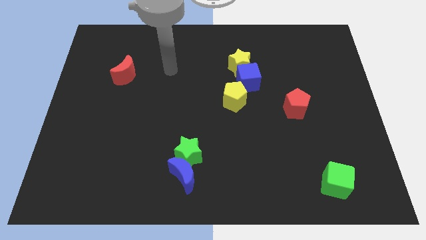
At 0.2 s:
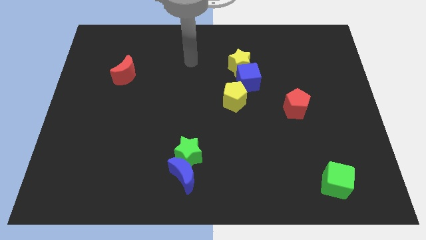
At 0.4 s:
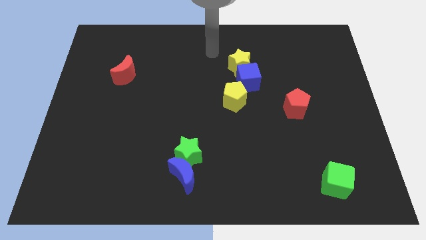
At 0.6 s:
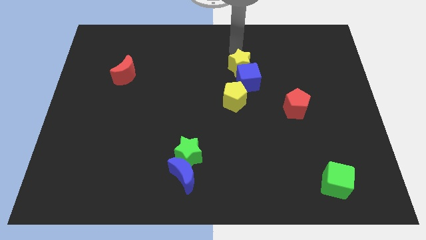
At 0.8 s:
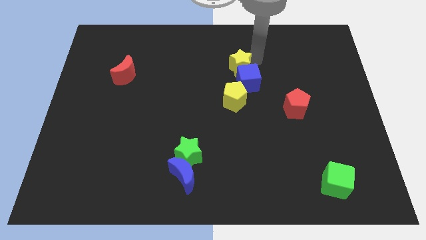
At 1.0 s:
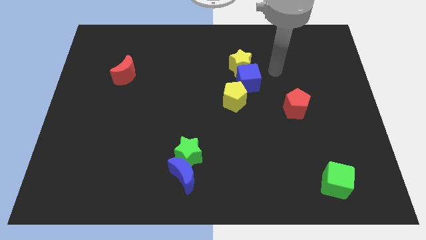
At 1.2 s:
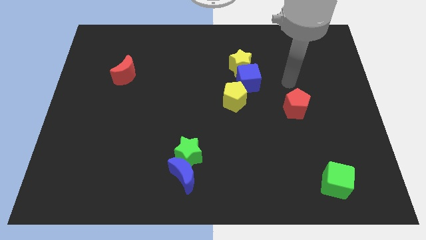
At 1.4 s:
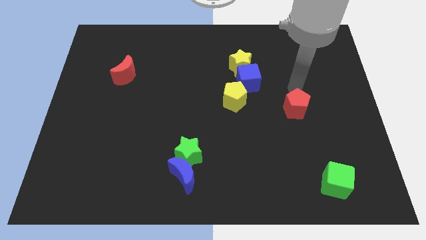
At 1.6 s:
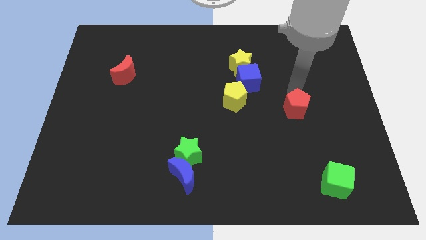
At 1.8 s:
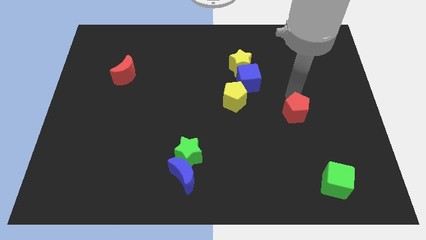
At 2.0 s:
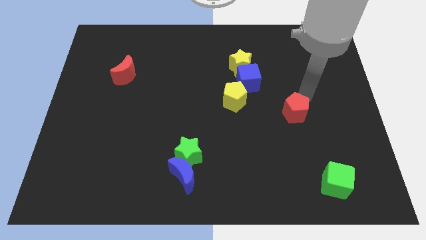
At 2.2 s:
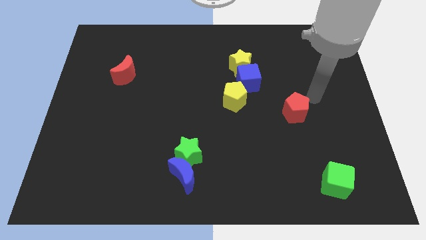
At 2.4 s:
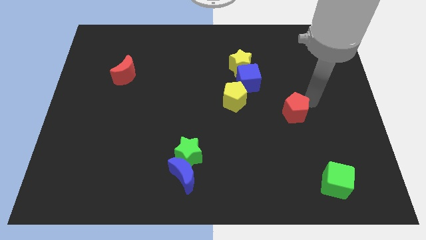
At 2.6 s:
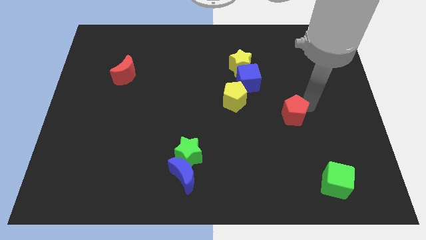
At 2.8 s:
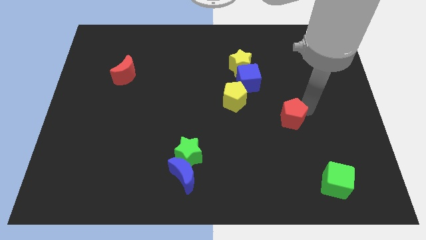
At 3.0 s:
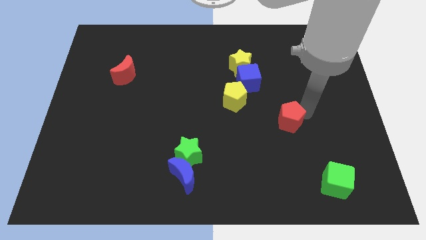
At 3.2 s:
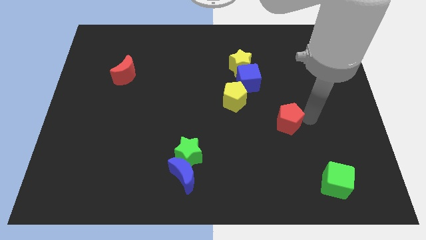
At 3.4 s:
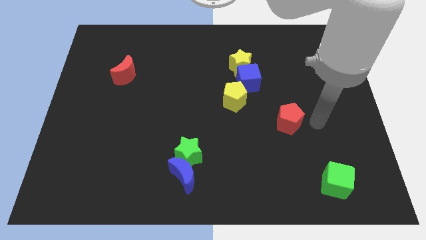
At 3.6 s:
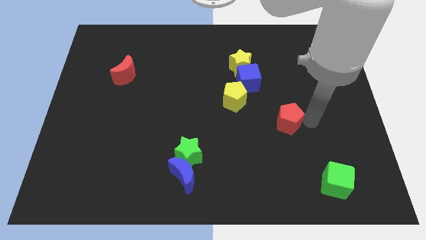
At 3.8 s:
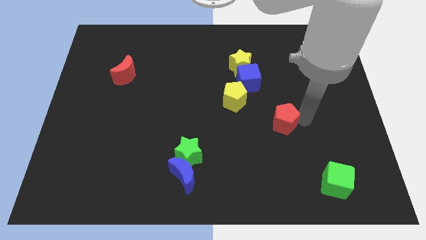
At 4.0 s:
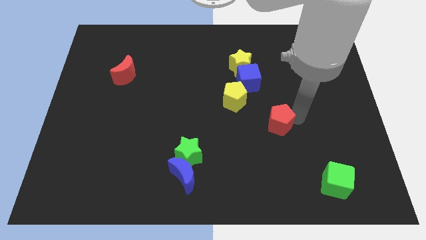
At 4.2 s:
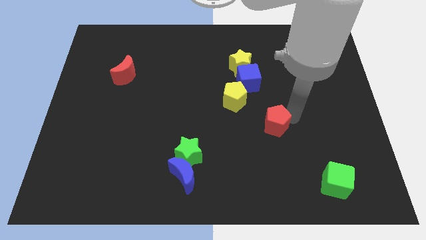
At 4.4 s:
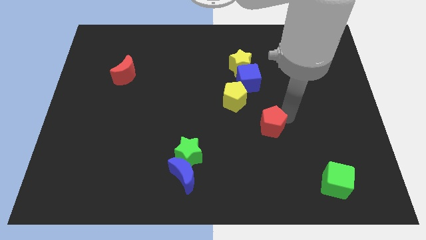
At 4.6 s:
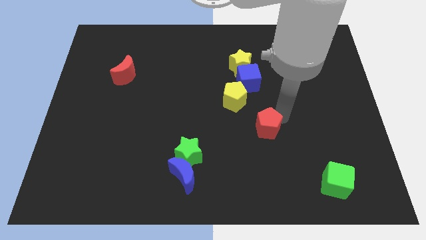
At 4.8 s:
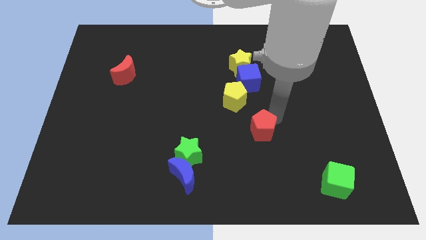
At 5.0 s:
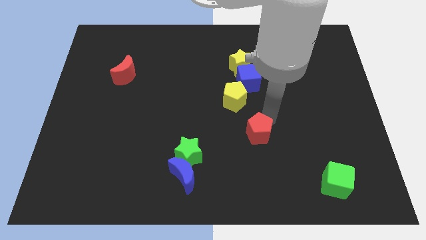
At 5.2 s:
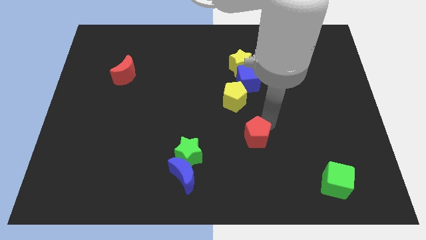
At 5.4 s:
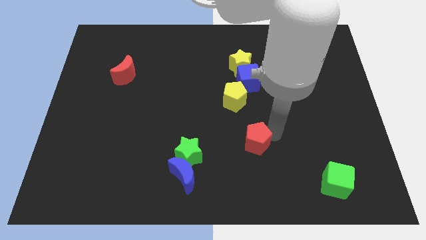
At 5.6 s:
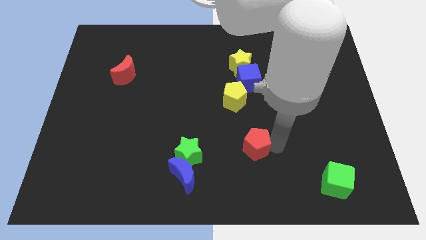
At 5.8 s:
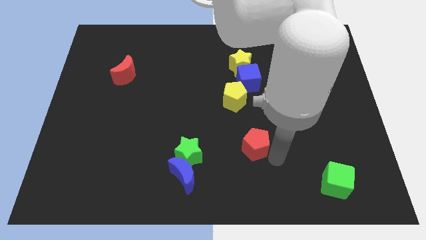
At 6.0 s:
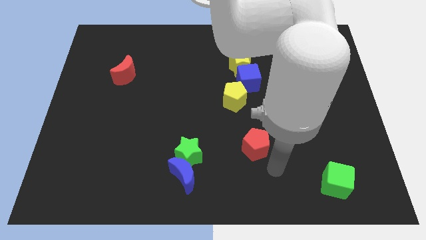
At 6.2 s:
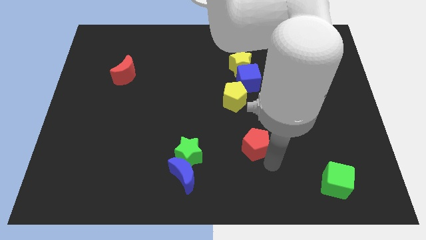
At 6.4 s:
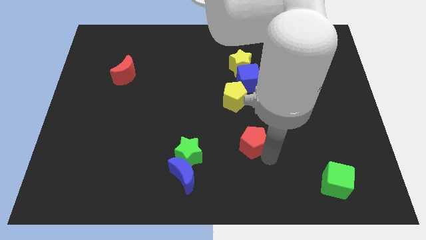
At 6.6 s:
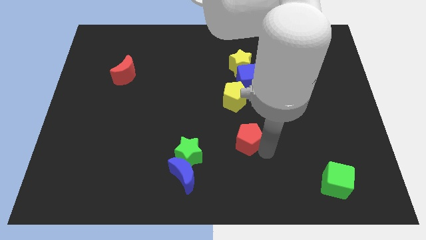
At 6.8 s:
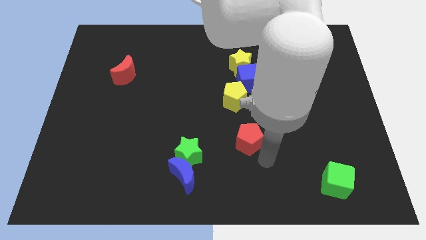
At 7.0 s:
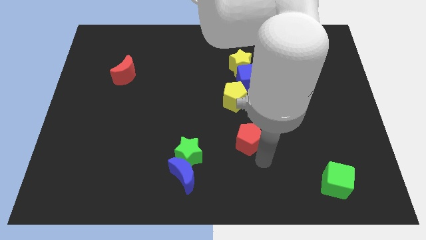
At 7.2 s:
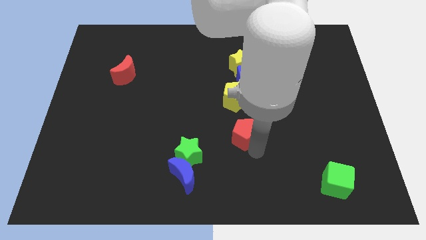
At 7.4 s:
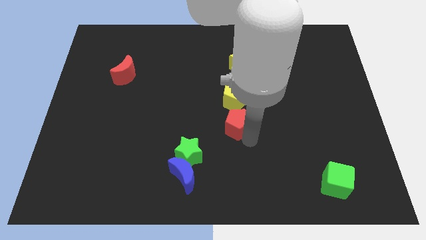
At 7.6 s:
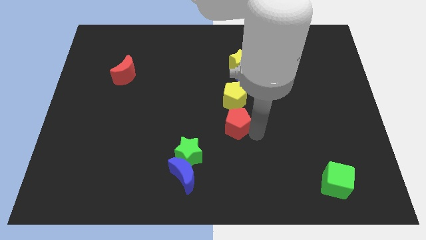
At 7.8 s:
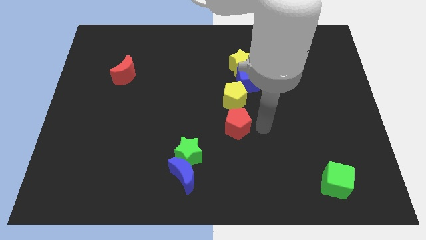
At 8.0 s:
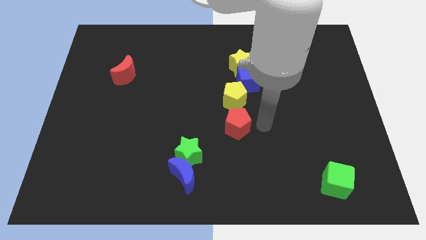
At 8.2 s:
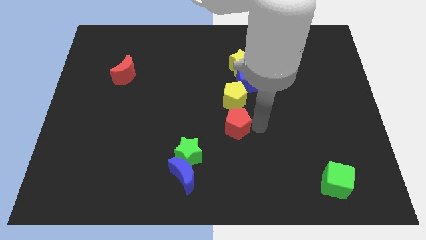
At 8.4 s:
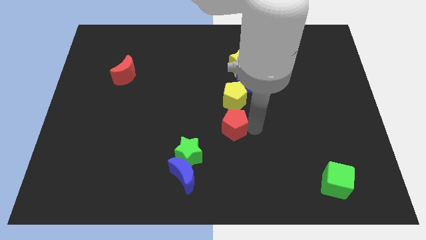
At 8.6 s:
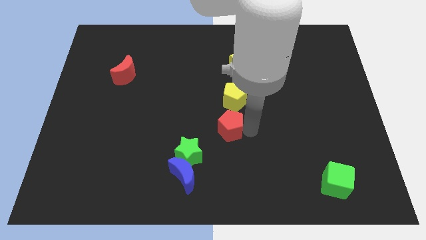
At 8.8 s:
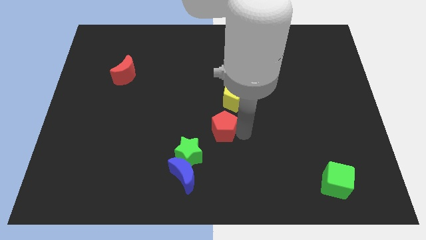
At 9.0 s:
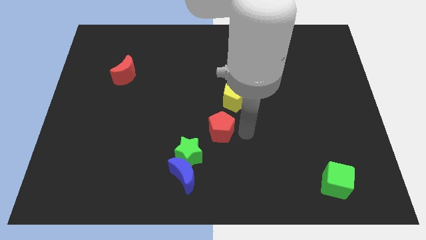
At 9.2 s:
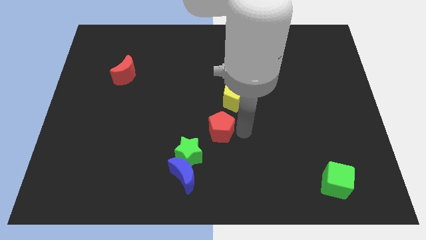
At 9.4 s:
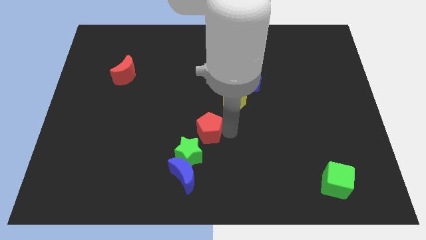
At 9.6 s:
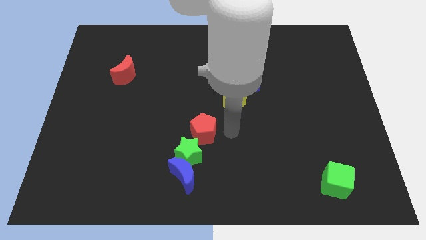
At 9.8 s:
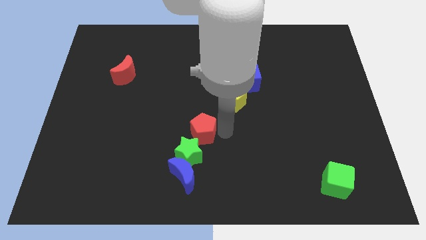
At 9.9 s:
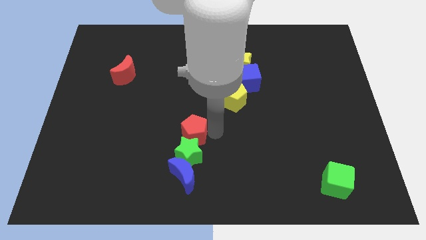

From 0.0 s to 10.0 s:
move the red pentagon to the top left of the green star

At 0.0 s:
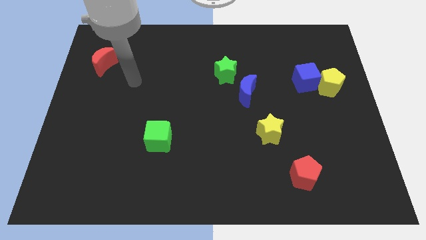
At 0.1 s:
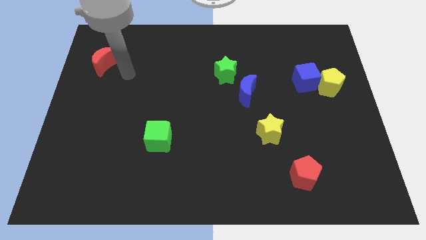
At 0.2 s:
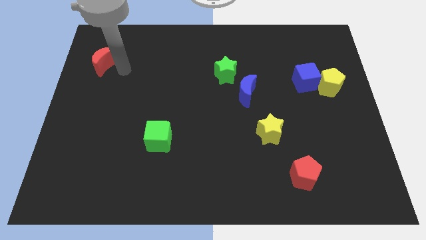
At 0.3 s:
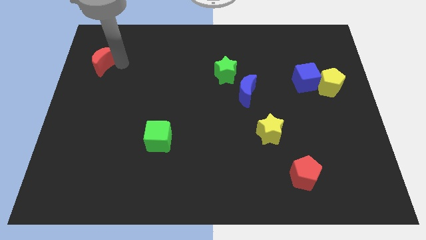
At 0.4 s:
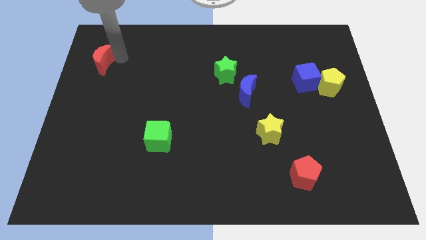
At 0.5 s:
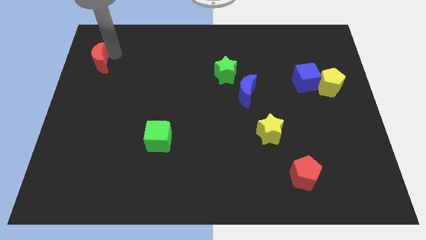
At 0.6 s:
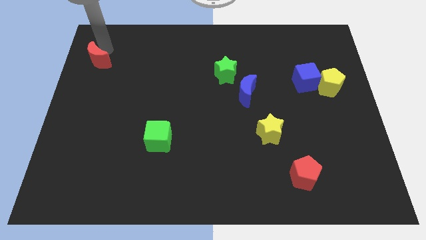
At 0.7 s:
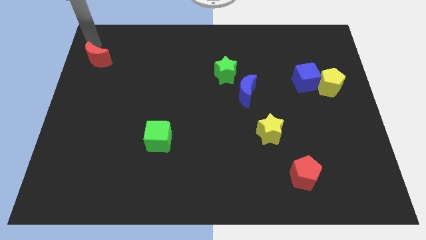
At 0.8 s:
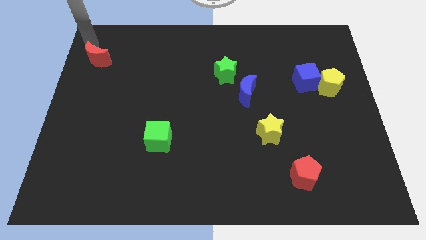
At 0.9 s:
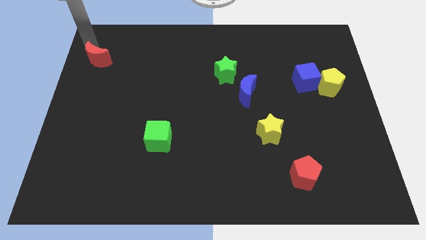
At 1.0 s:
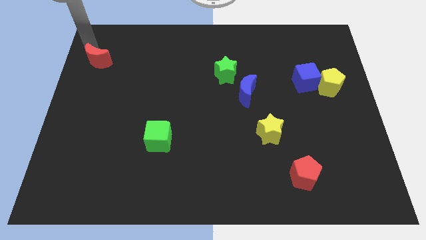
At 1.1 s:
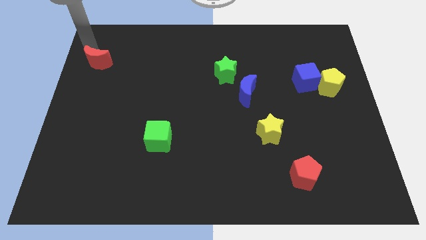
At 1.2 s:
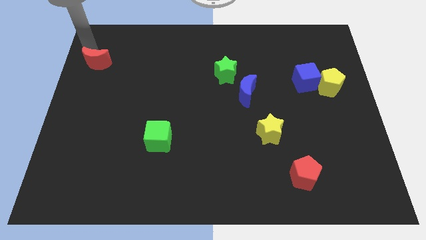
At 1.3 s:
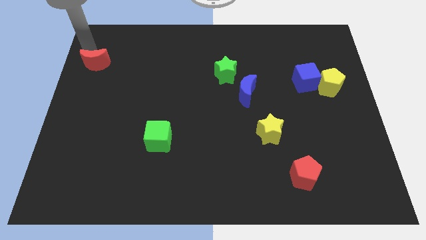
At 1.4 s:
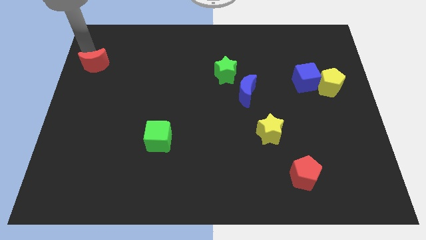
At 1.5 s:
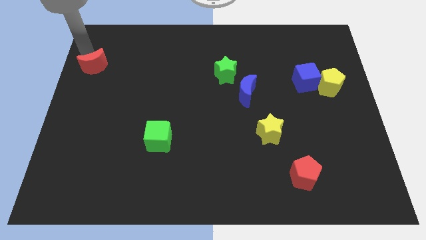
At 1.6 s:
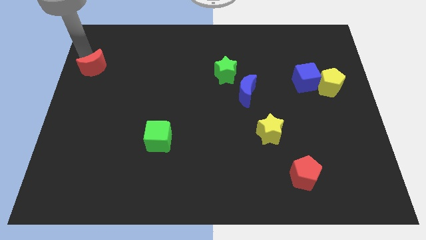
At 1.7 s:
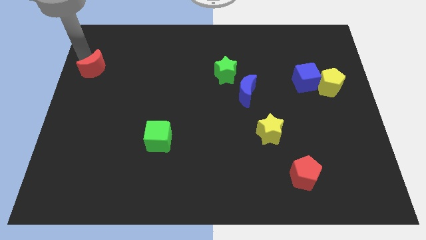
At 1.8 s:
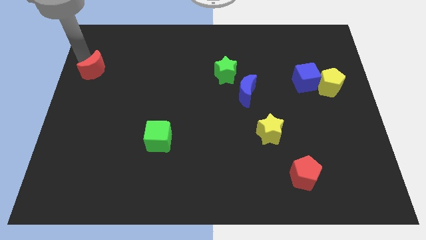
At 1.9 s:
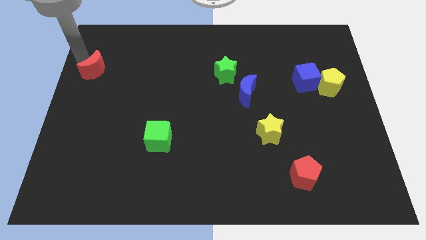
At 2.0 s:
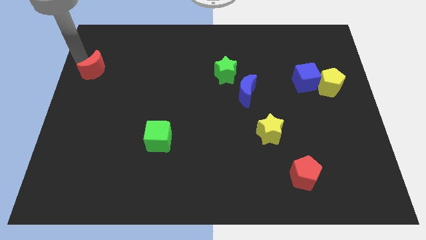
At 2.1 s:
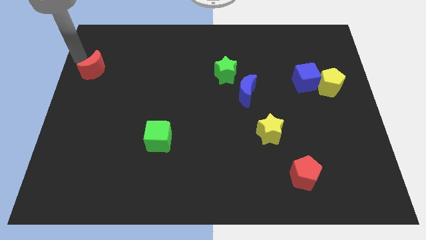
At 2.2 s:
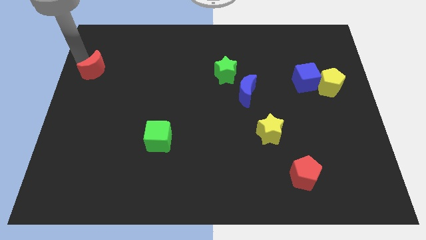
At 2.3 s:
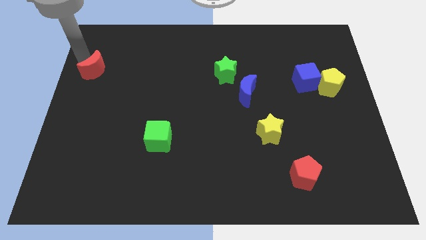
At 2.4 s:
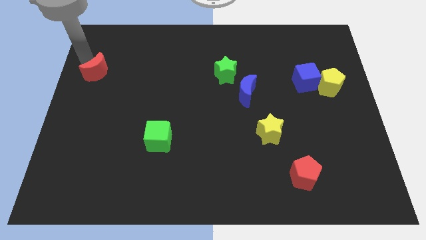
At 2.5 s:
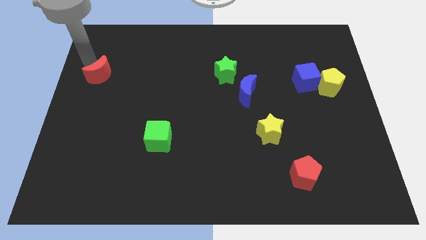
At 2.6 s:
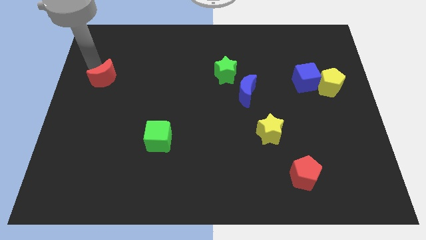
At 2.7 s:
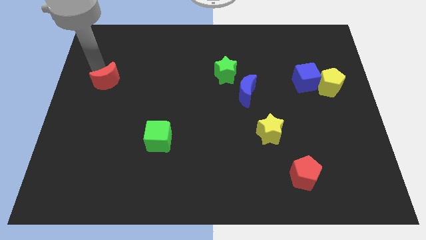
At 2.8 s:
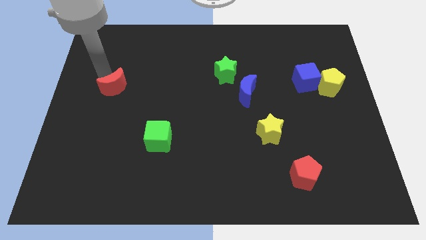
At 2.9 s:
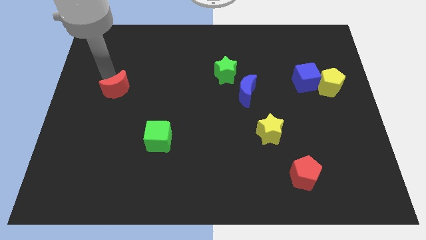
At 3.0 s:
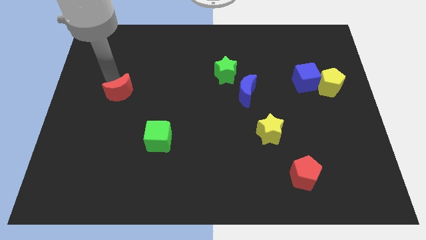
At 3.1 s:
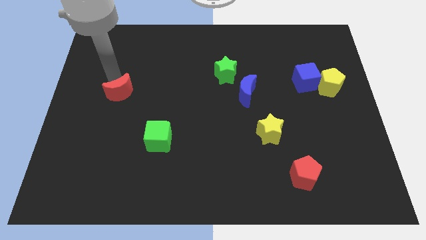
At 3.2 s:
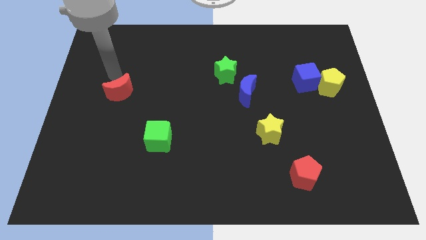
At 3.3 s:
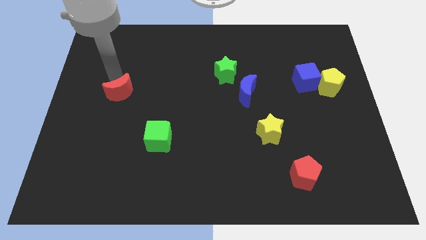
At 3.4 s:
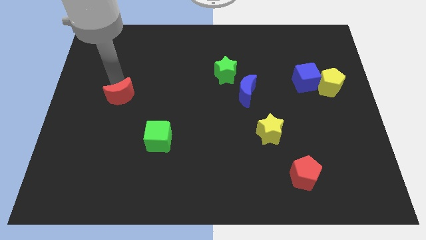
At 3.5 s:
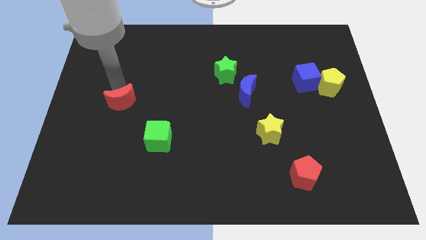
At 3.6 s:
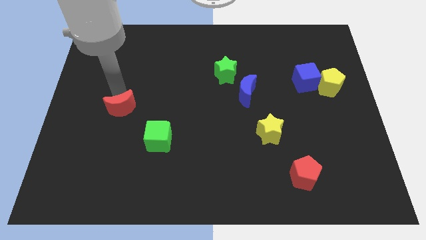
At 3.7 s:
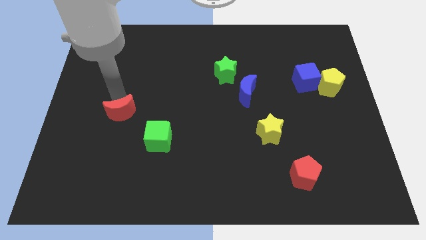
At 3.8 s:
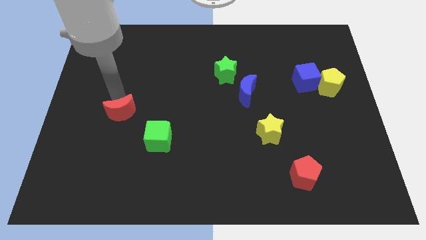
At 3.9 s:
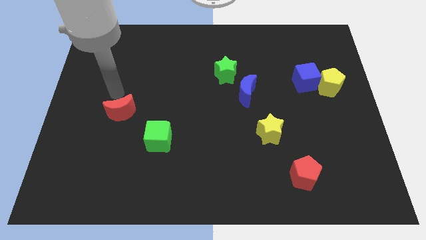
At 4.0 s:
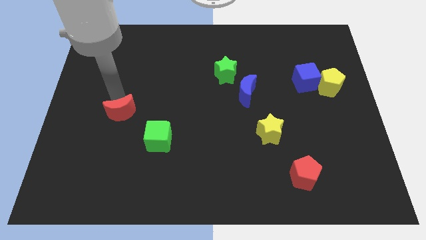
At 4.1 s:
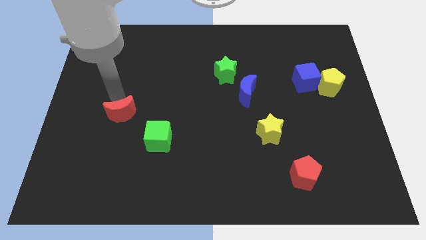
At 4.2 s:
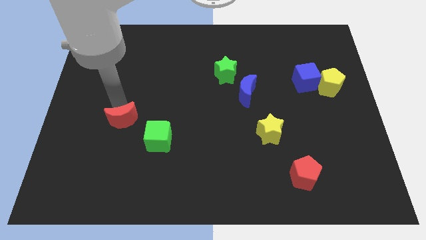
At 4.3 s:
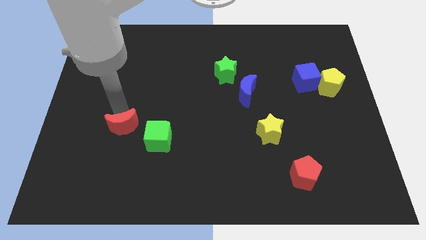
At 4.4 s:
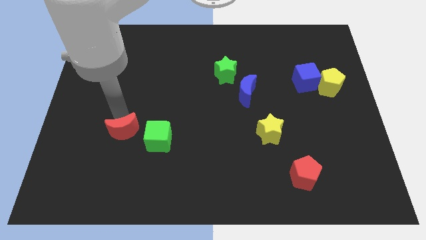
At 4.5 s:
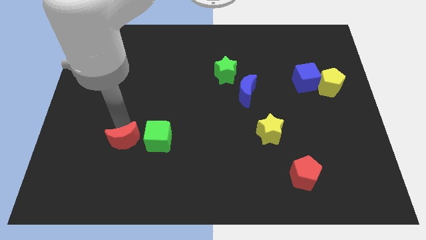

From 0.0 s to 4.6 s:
move the red moon to the bottom left of the green cube
